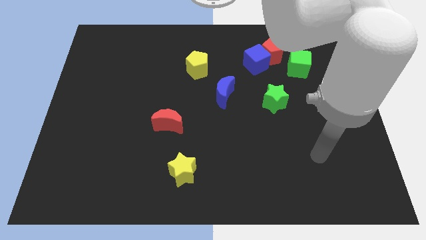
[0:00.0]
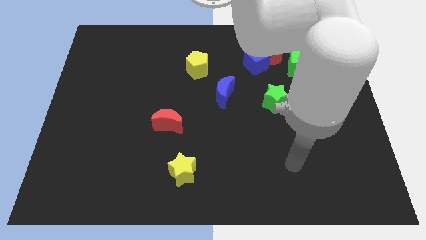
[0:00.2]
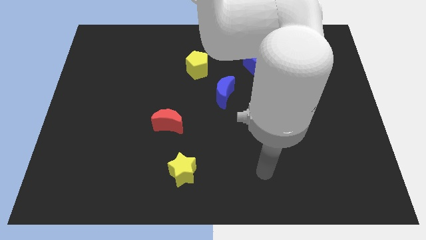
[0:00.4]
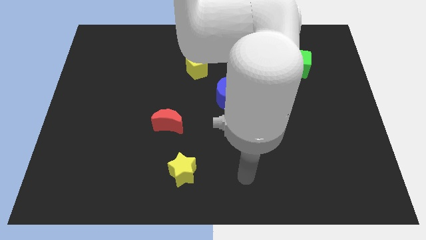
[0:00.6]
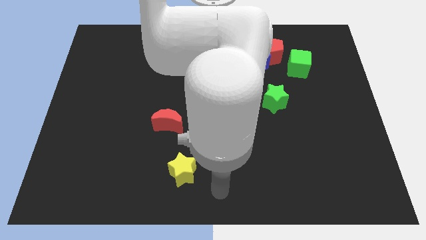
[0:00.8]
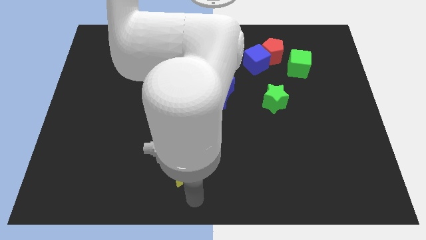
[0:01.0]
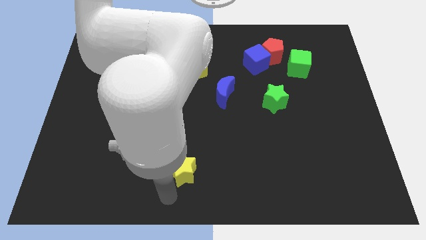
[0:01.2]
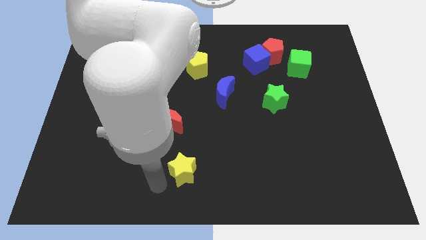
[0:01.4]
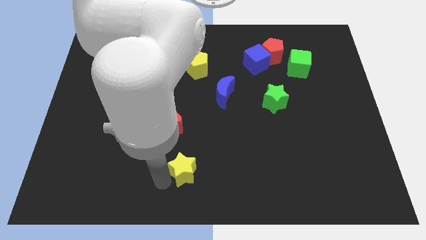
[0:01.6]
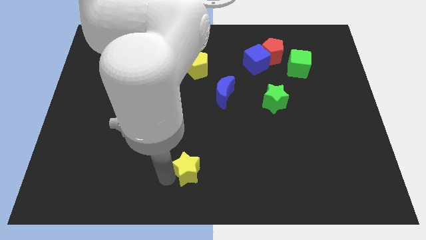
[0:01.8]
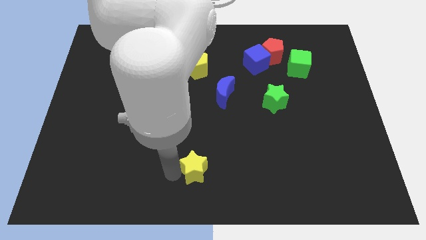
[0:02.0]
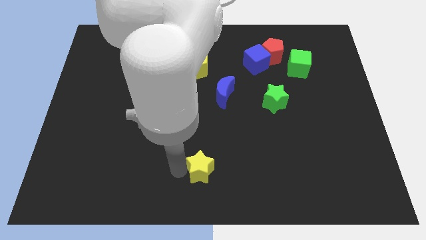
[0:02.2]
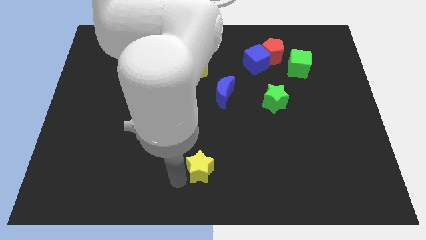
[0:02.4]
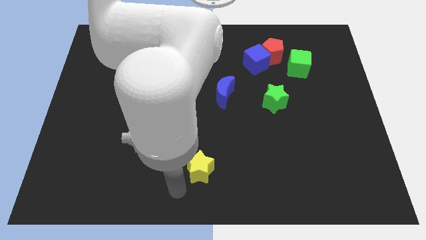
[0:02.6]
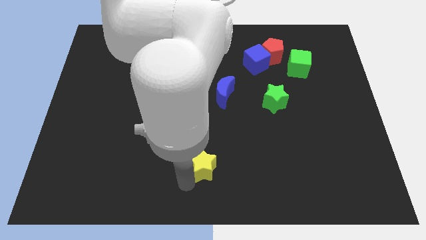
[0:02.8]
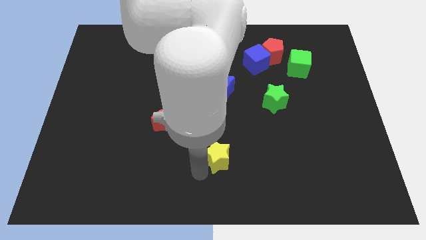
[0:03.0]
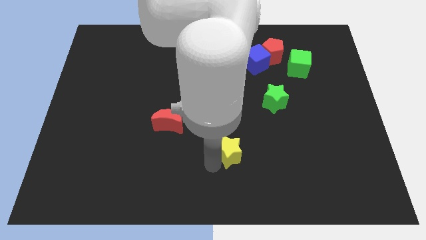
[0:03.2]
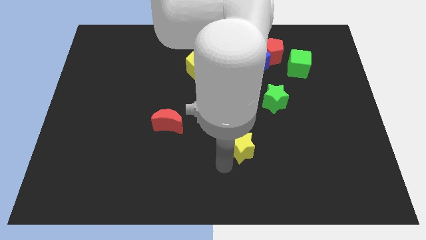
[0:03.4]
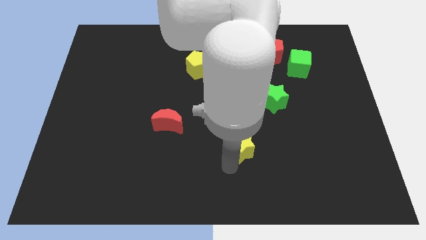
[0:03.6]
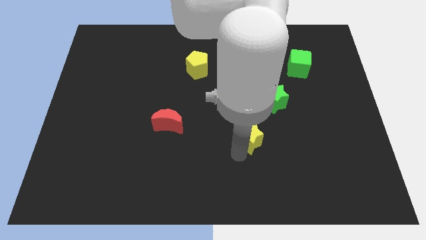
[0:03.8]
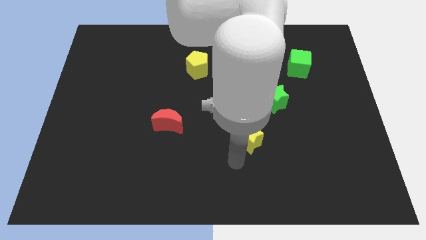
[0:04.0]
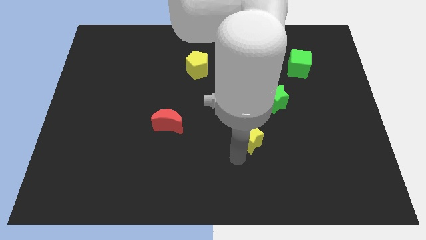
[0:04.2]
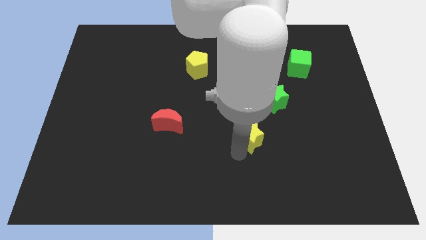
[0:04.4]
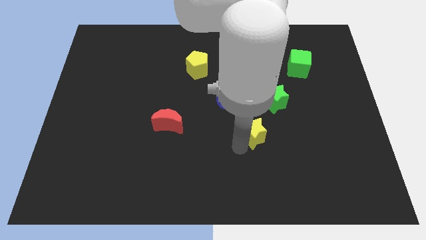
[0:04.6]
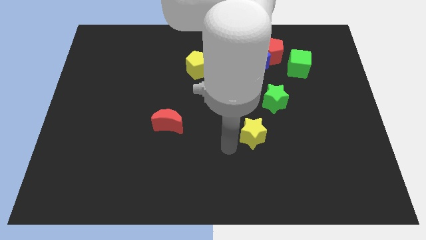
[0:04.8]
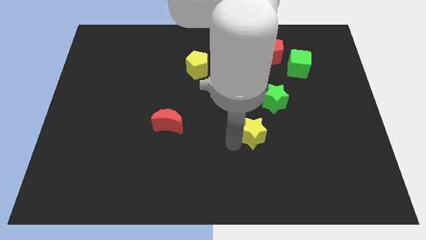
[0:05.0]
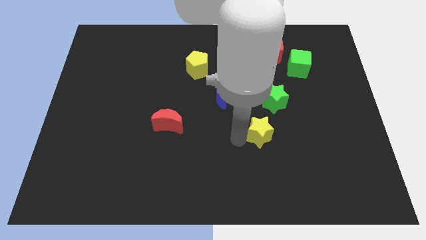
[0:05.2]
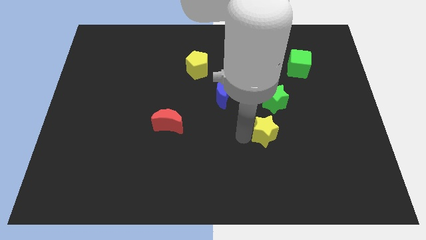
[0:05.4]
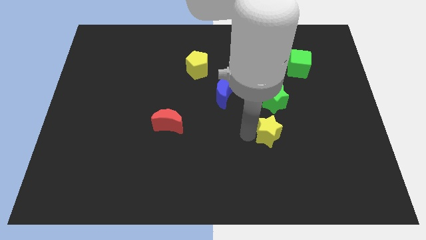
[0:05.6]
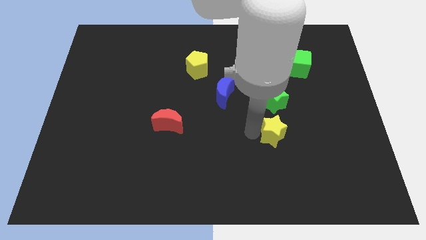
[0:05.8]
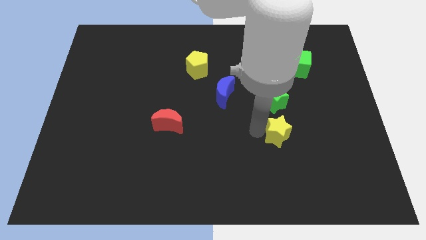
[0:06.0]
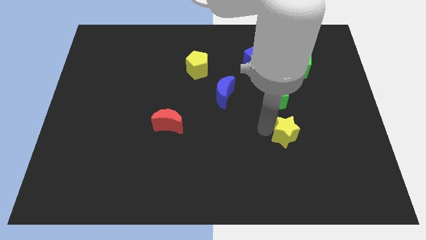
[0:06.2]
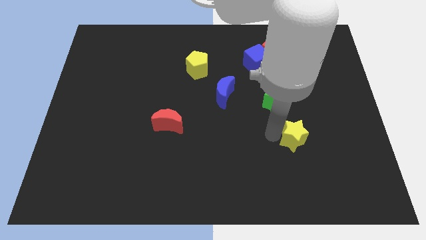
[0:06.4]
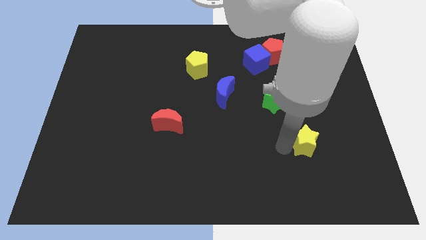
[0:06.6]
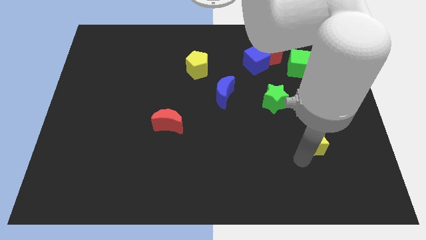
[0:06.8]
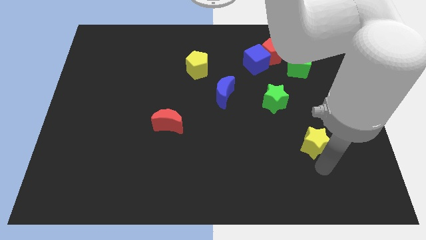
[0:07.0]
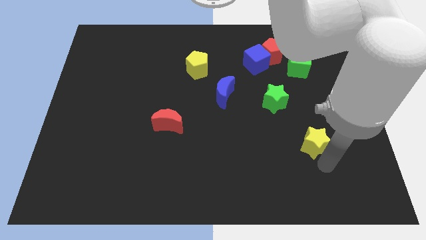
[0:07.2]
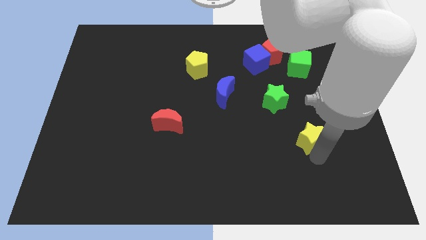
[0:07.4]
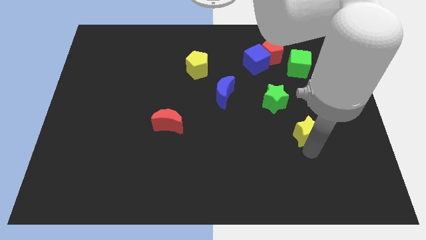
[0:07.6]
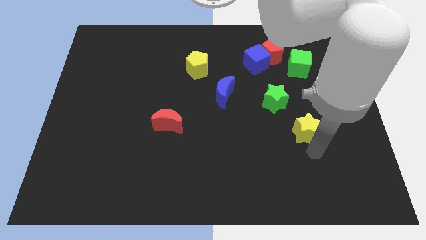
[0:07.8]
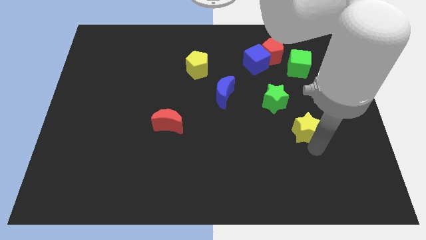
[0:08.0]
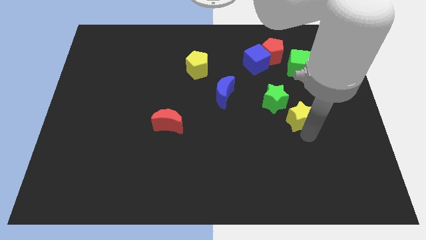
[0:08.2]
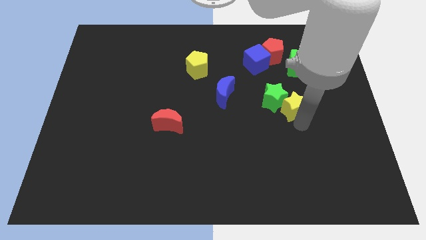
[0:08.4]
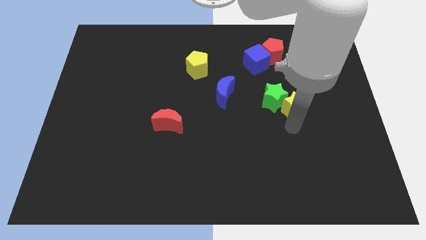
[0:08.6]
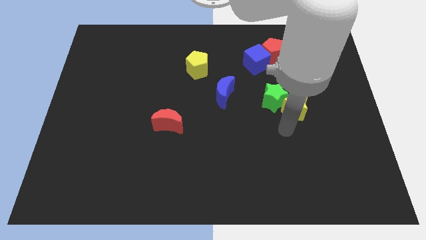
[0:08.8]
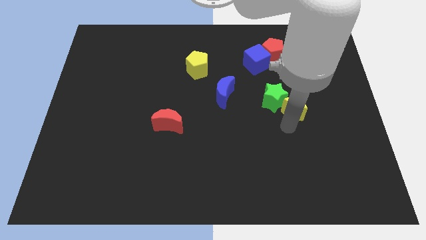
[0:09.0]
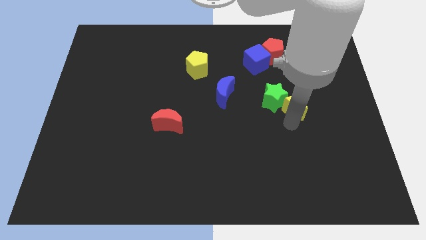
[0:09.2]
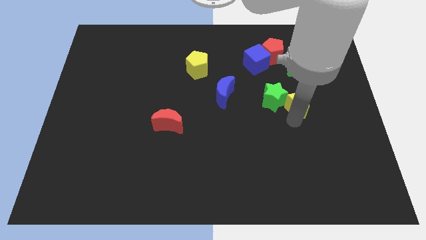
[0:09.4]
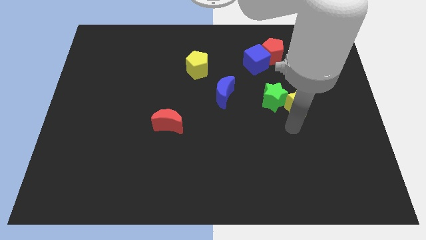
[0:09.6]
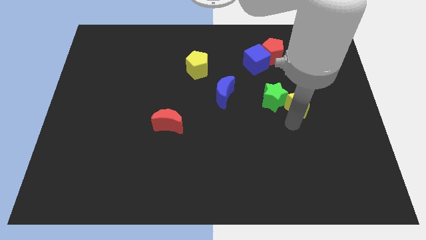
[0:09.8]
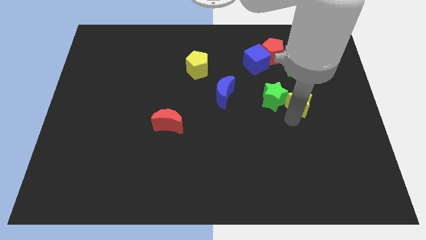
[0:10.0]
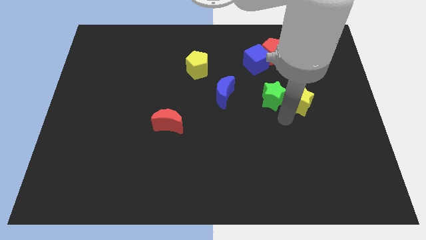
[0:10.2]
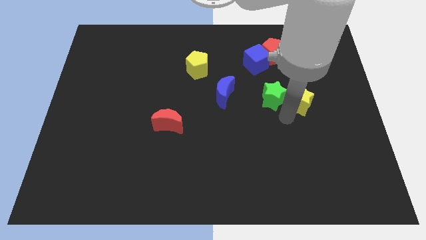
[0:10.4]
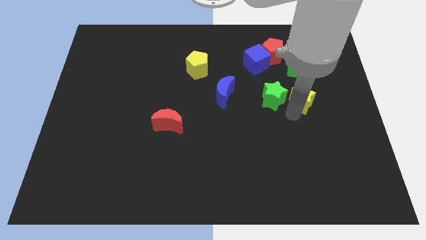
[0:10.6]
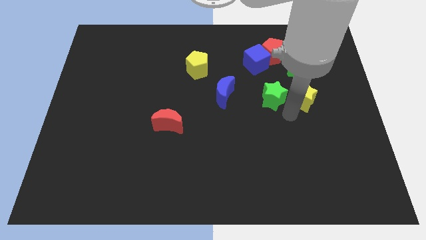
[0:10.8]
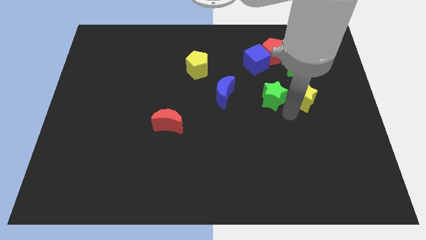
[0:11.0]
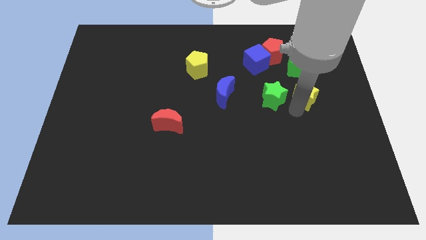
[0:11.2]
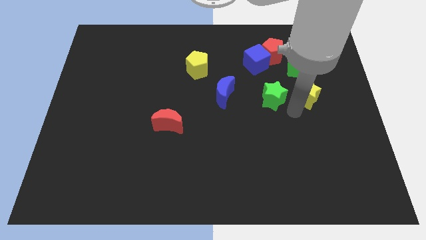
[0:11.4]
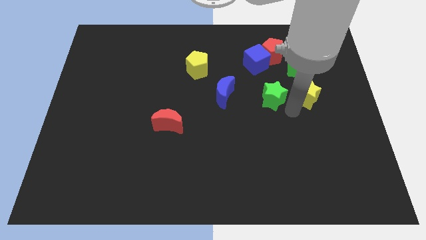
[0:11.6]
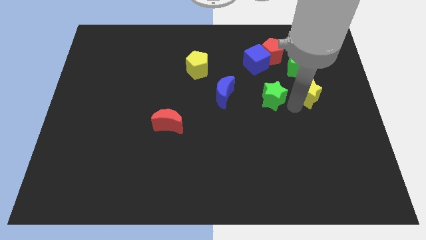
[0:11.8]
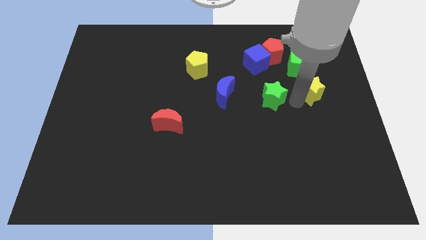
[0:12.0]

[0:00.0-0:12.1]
move the yellow star diagonally down and to the right of the green cube

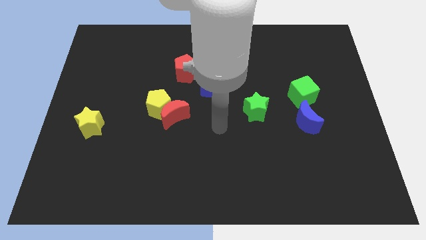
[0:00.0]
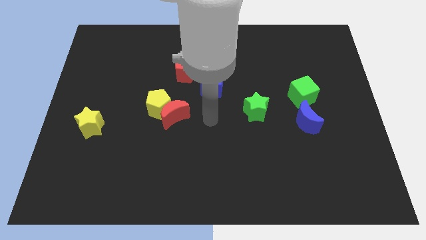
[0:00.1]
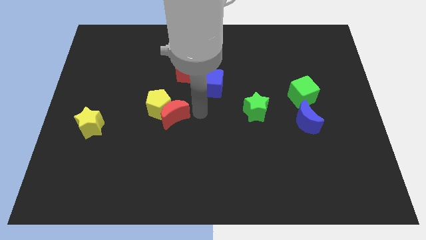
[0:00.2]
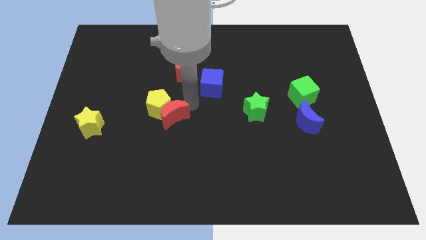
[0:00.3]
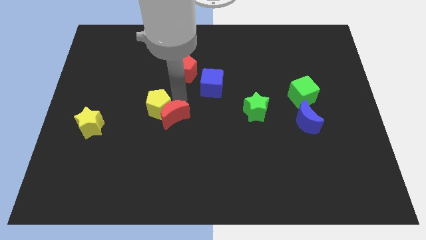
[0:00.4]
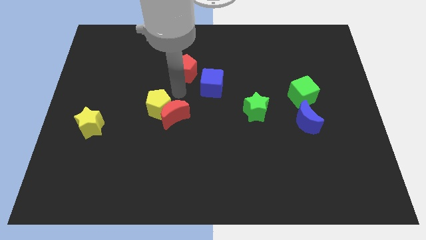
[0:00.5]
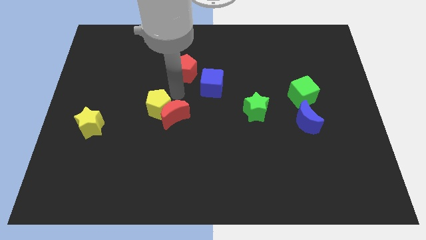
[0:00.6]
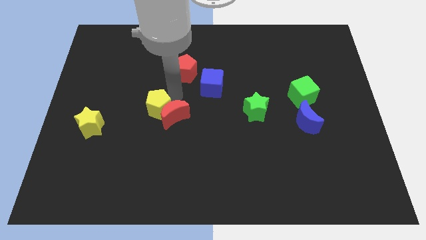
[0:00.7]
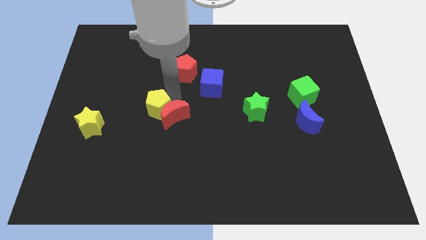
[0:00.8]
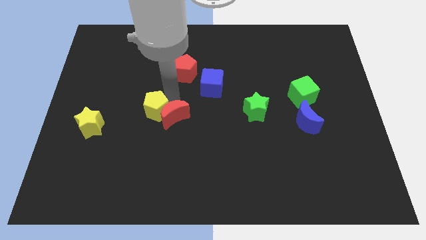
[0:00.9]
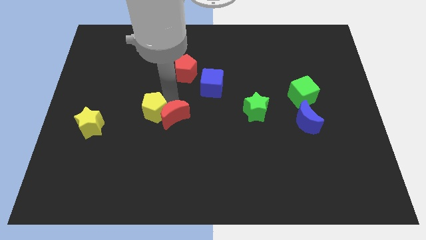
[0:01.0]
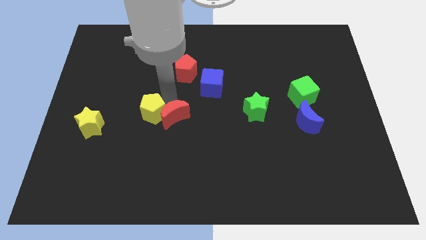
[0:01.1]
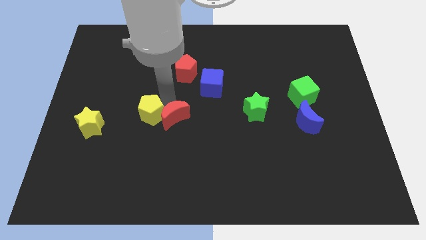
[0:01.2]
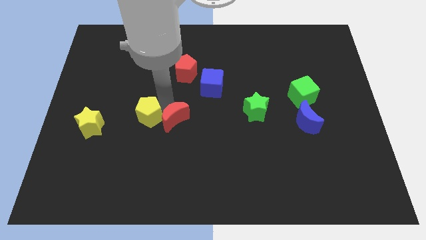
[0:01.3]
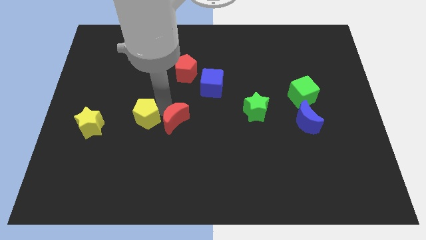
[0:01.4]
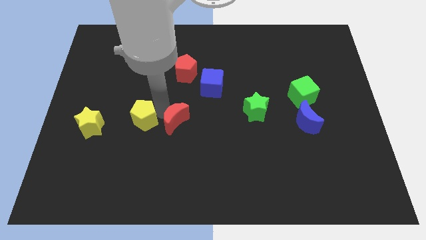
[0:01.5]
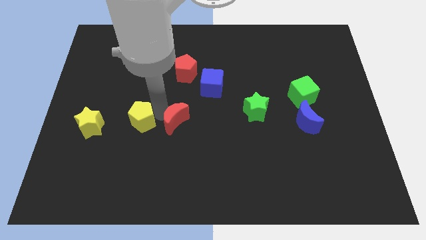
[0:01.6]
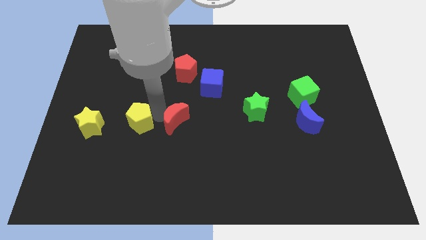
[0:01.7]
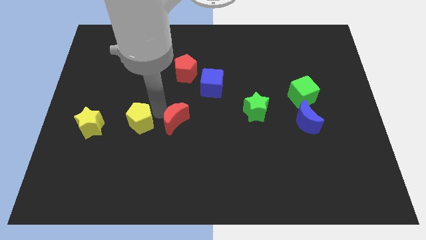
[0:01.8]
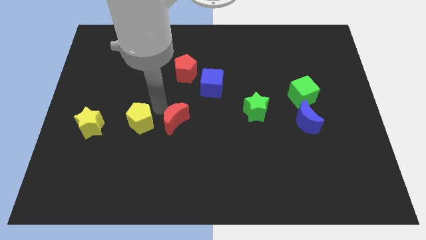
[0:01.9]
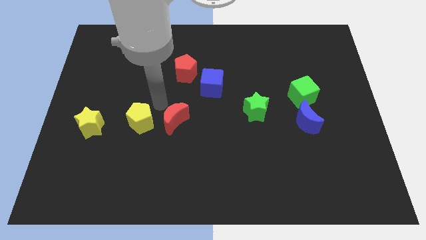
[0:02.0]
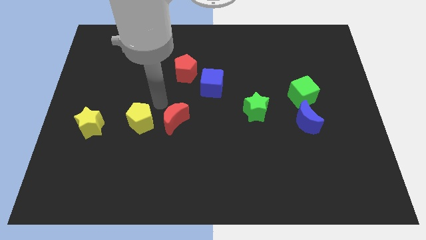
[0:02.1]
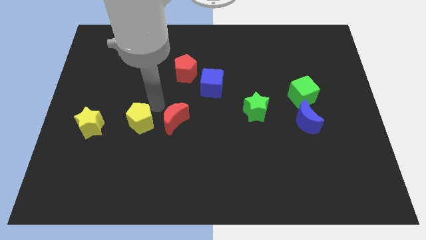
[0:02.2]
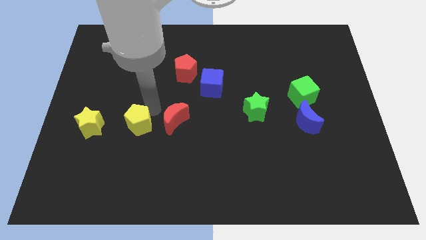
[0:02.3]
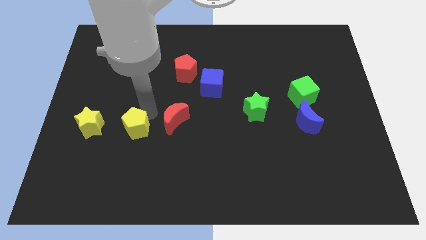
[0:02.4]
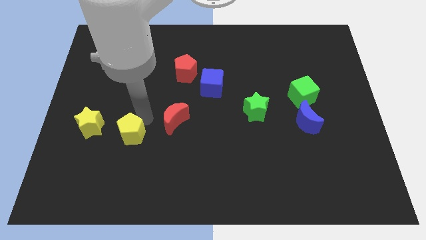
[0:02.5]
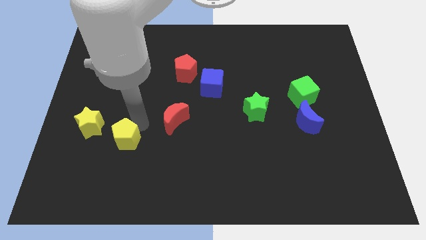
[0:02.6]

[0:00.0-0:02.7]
move the yellow pentagon to the bottom right side of the yellow star
